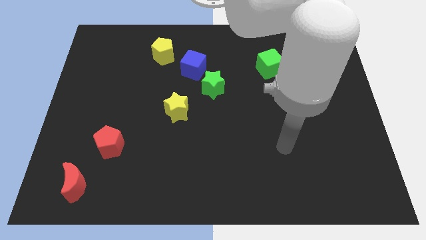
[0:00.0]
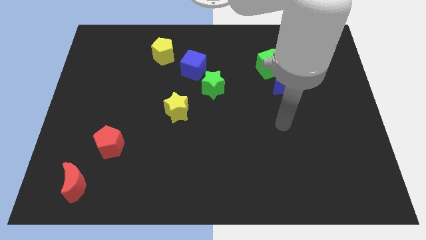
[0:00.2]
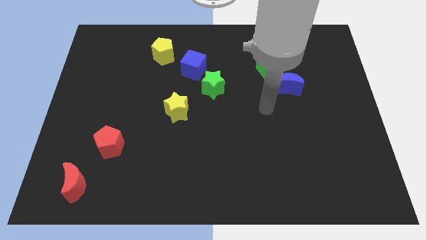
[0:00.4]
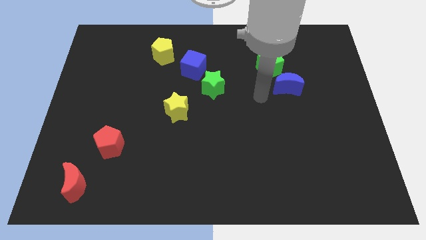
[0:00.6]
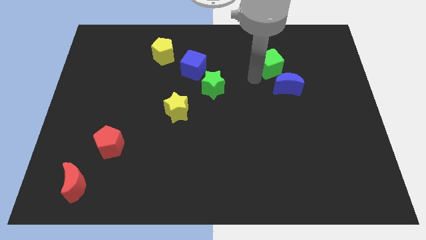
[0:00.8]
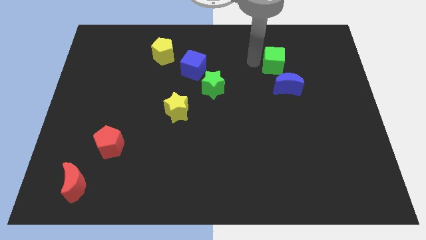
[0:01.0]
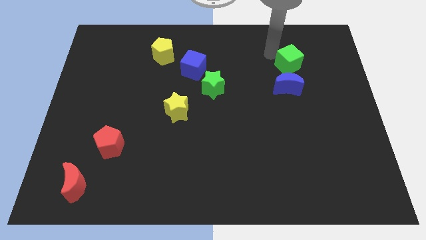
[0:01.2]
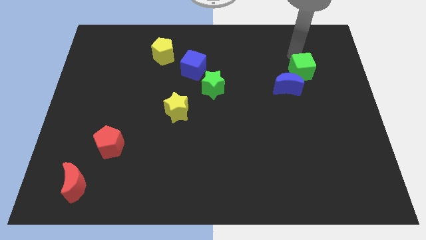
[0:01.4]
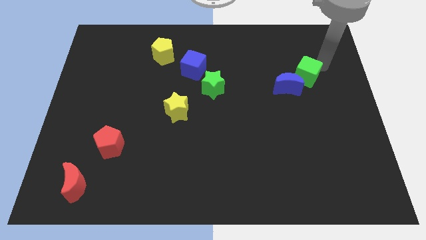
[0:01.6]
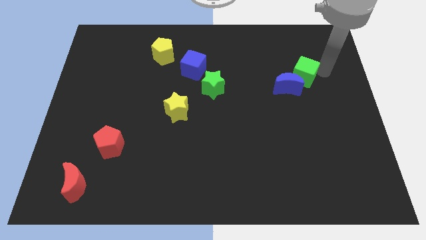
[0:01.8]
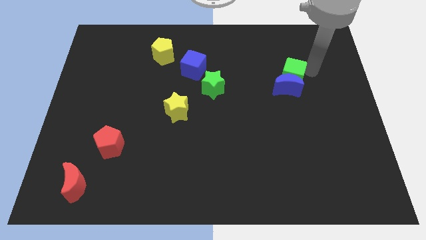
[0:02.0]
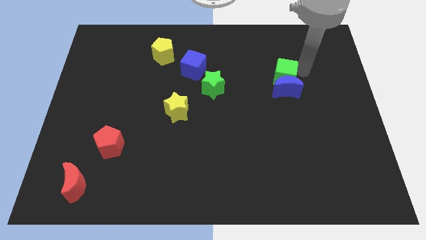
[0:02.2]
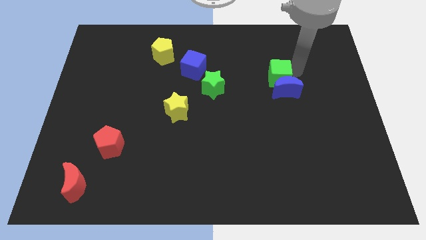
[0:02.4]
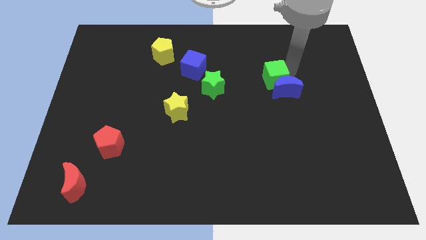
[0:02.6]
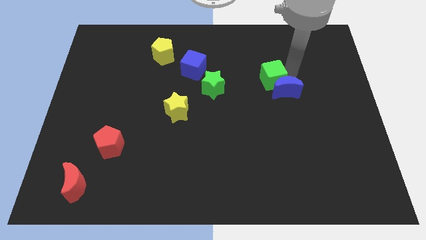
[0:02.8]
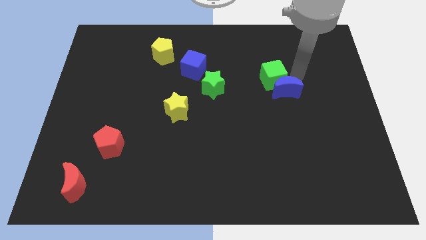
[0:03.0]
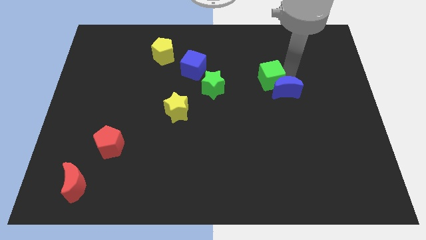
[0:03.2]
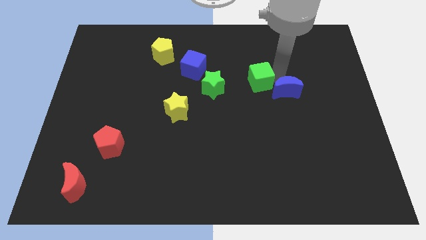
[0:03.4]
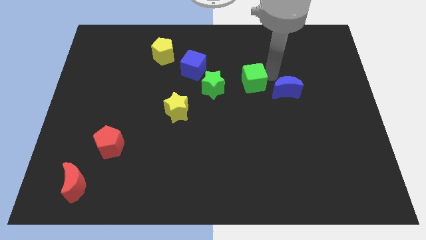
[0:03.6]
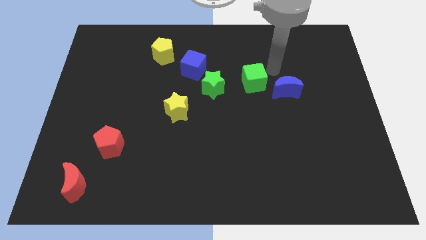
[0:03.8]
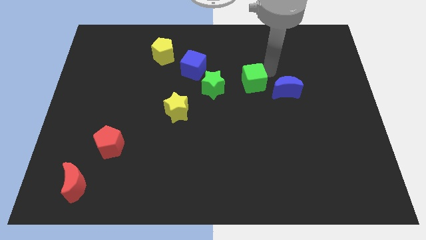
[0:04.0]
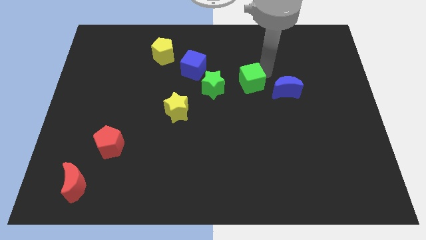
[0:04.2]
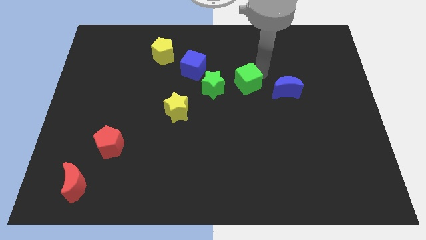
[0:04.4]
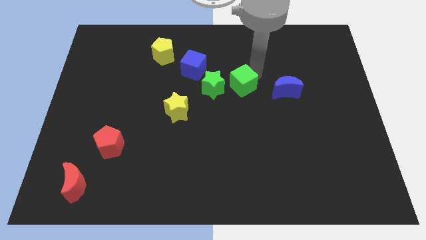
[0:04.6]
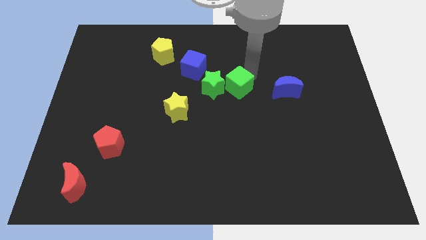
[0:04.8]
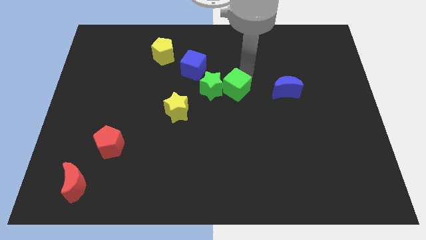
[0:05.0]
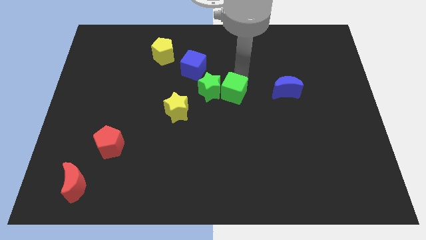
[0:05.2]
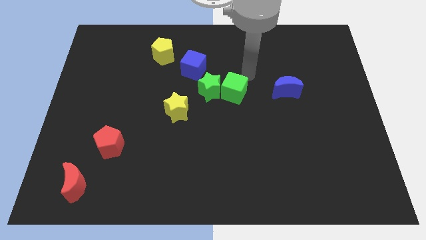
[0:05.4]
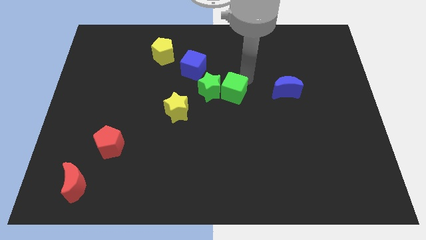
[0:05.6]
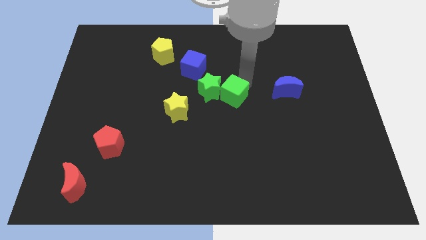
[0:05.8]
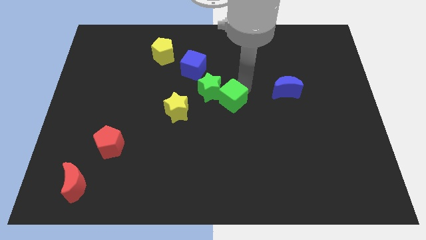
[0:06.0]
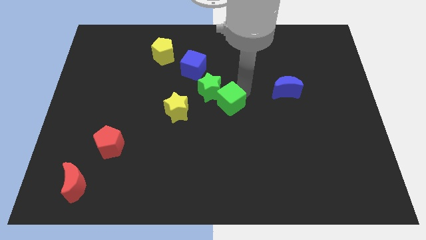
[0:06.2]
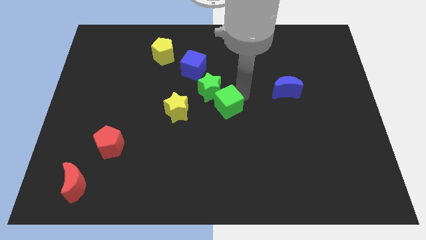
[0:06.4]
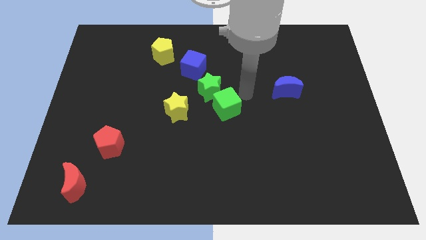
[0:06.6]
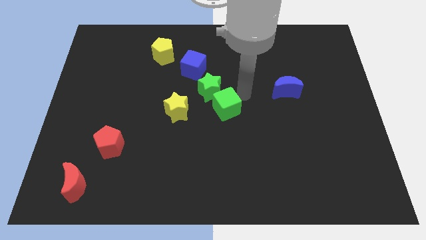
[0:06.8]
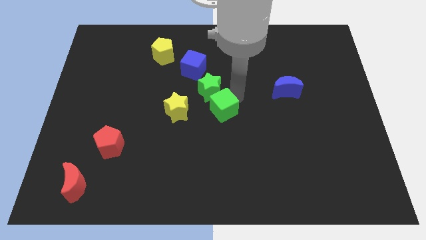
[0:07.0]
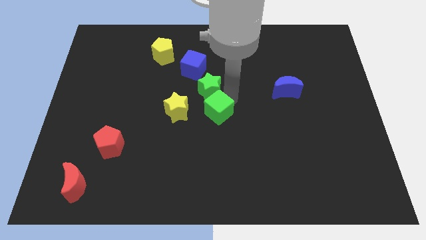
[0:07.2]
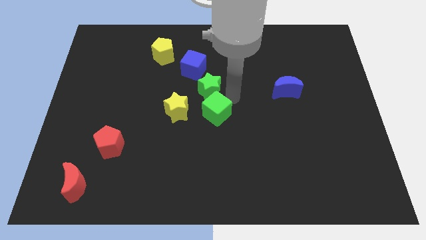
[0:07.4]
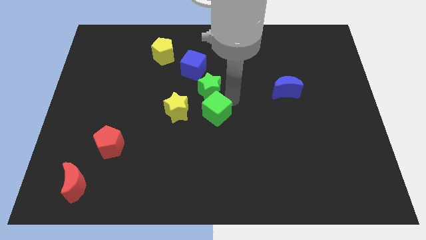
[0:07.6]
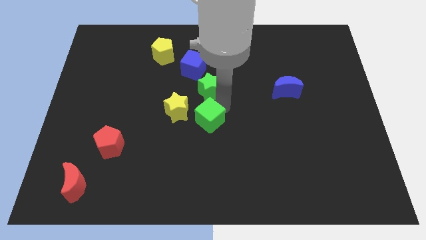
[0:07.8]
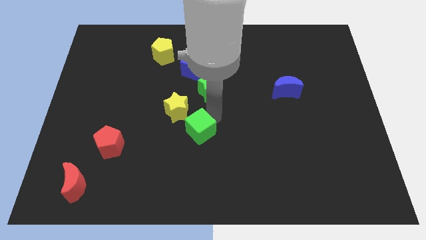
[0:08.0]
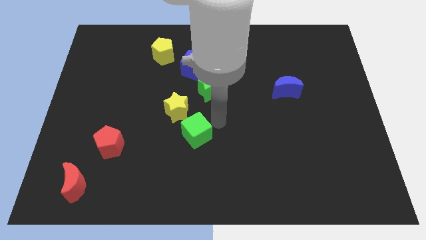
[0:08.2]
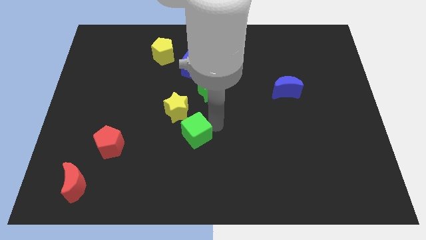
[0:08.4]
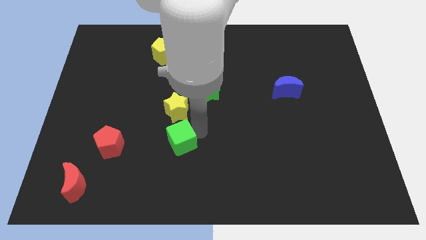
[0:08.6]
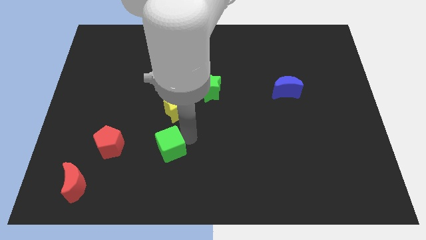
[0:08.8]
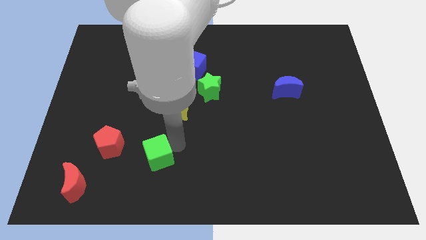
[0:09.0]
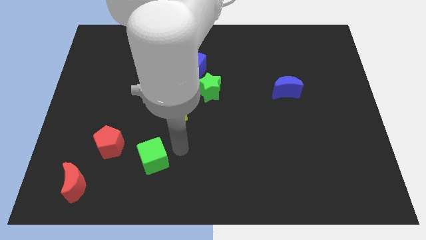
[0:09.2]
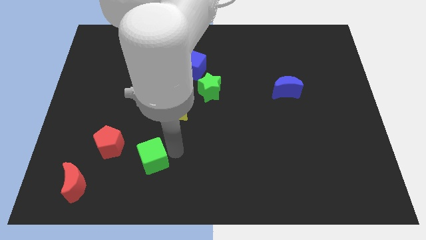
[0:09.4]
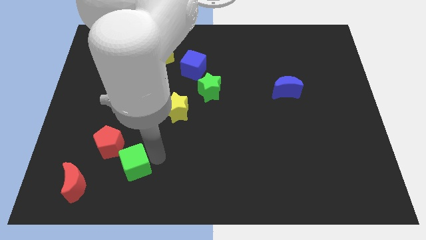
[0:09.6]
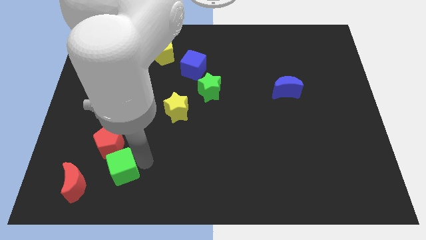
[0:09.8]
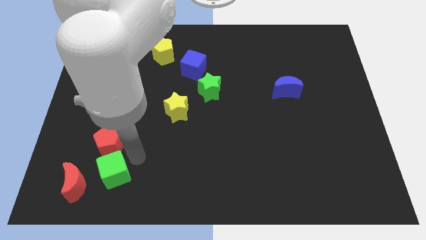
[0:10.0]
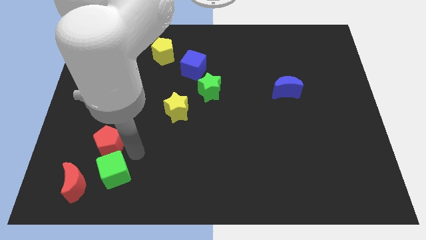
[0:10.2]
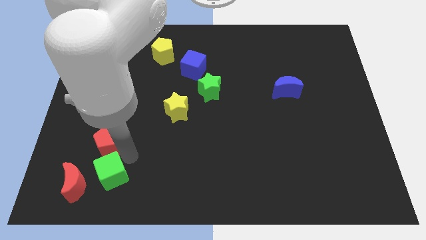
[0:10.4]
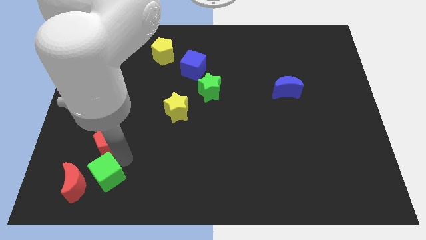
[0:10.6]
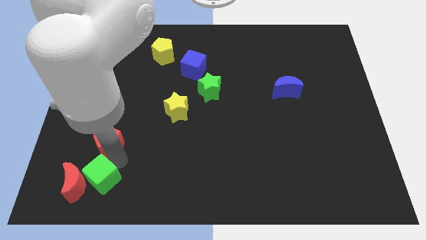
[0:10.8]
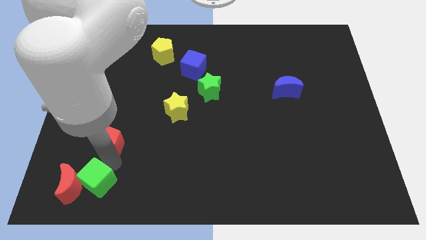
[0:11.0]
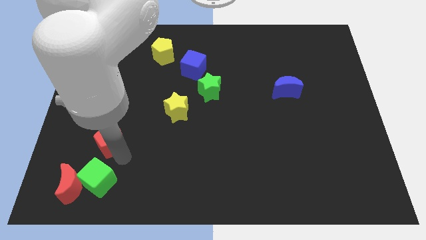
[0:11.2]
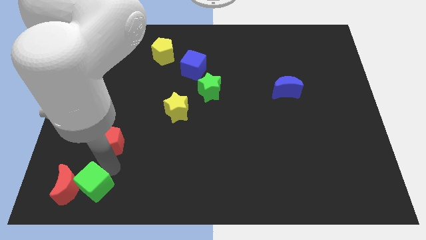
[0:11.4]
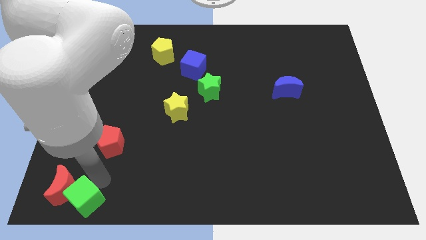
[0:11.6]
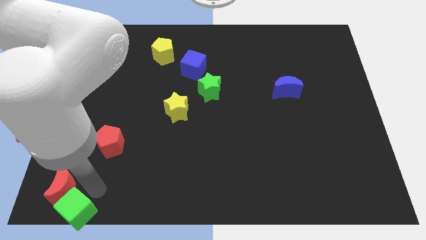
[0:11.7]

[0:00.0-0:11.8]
put the green cube to the bottom left corner
